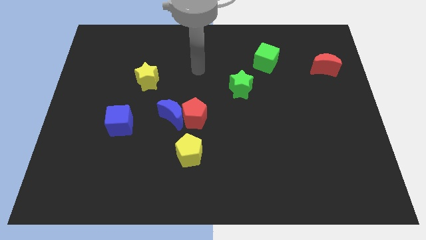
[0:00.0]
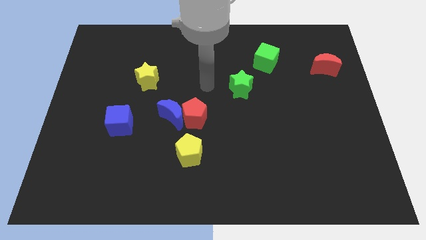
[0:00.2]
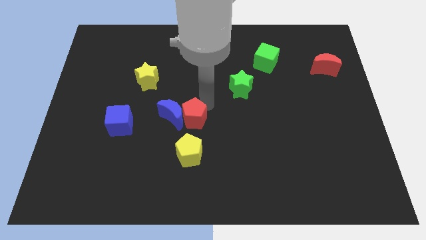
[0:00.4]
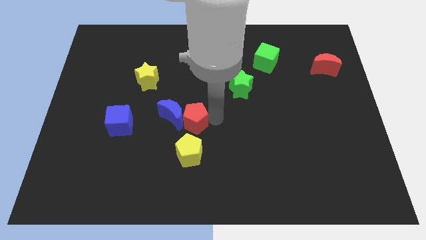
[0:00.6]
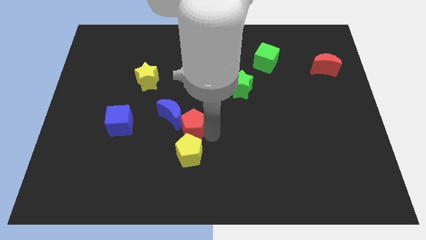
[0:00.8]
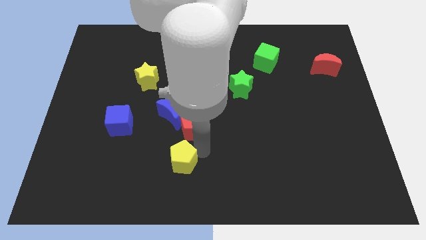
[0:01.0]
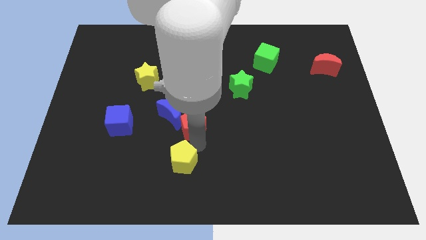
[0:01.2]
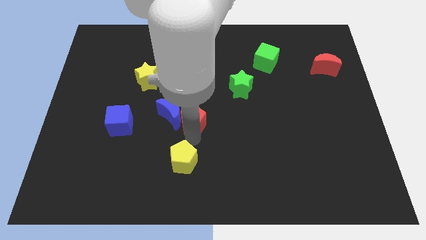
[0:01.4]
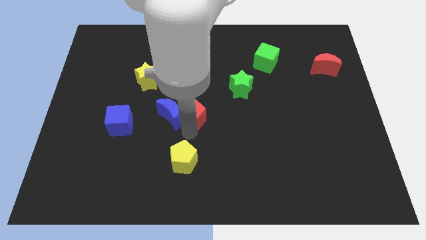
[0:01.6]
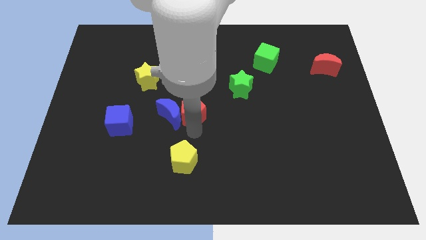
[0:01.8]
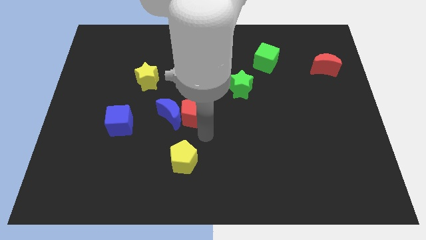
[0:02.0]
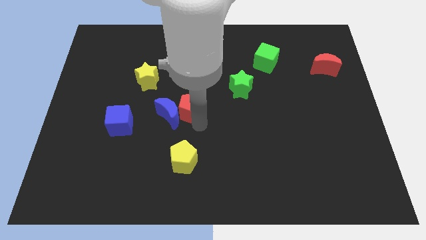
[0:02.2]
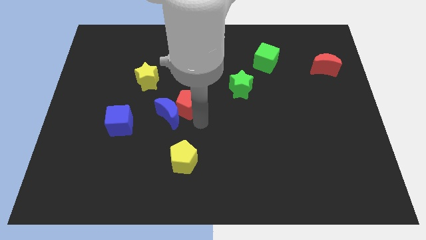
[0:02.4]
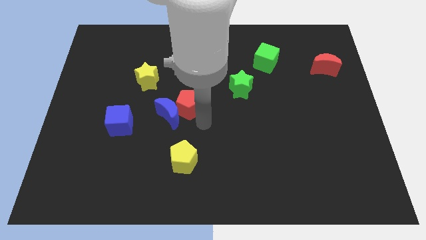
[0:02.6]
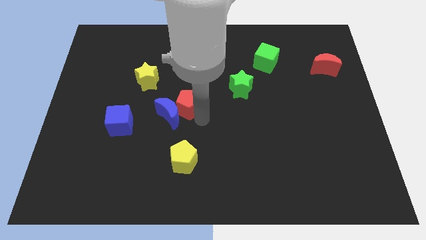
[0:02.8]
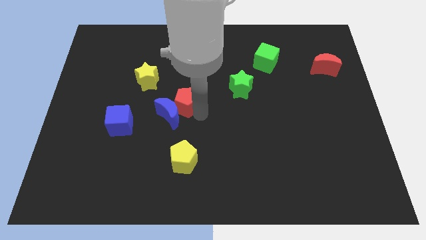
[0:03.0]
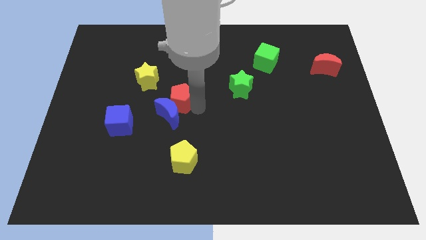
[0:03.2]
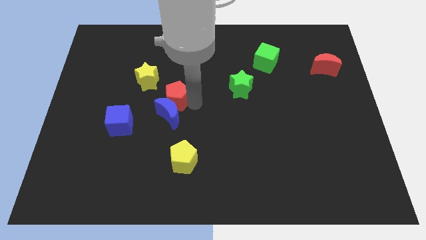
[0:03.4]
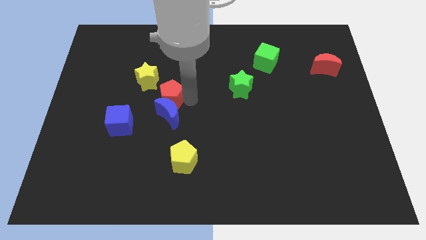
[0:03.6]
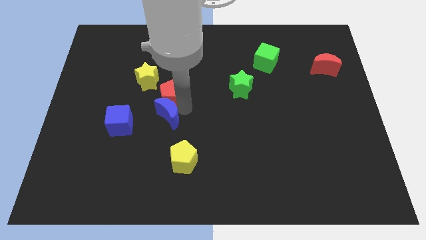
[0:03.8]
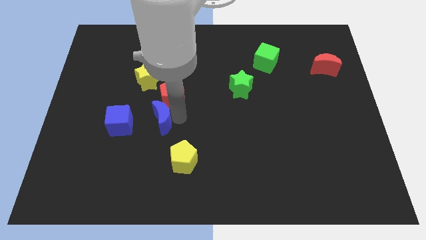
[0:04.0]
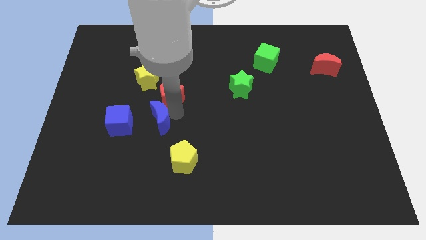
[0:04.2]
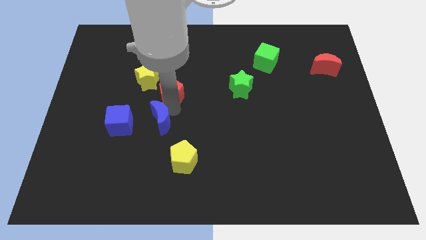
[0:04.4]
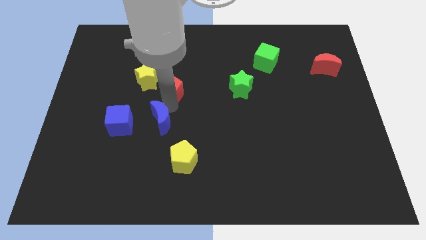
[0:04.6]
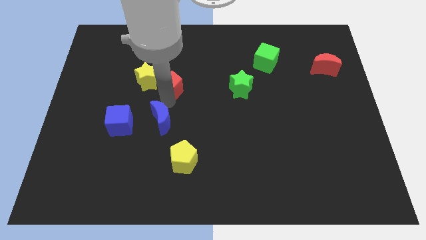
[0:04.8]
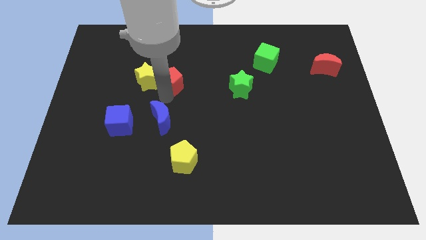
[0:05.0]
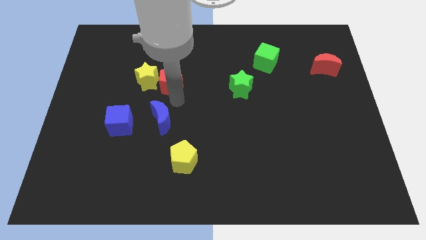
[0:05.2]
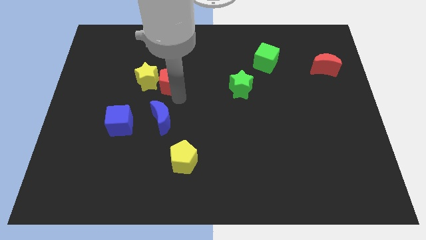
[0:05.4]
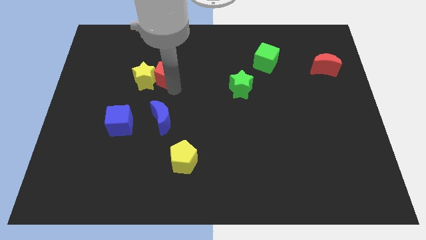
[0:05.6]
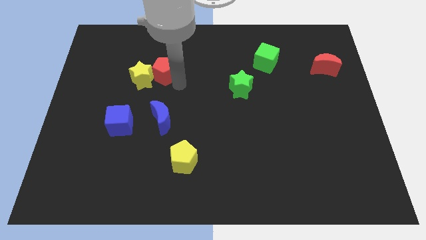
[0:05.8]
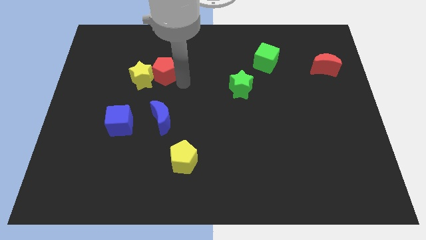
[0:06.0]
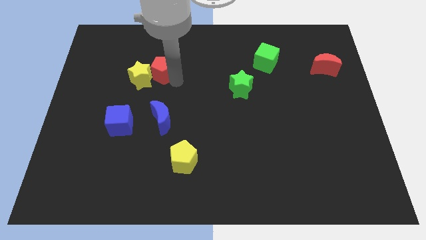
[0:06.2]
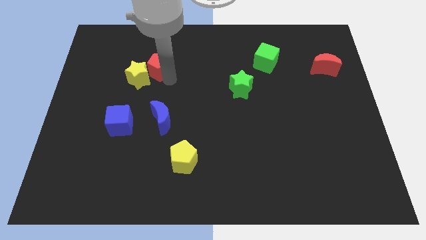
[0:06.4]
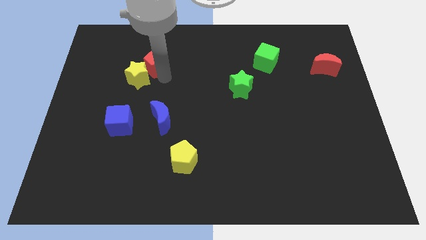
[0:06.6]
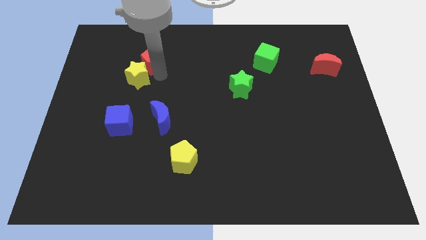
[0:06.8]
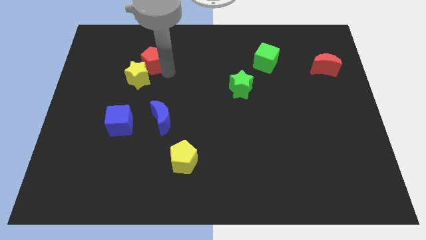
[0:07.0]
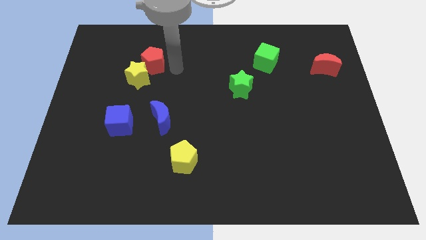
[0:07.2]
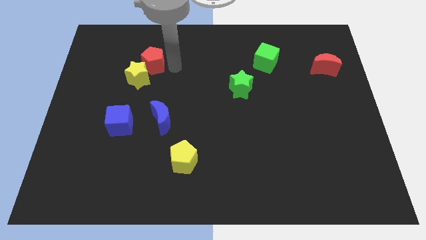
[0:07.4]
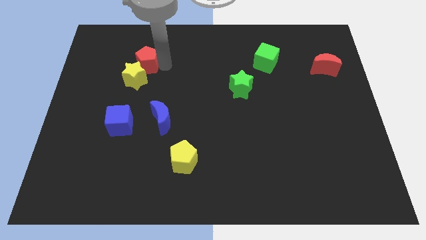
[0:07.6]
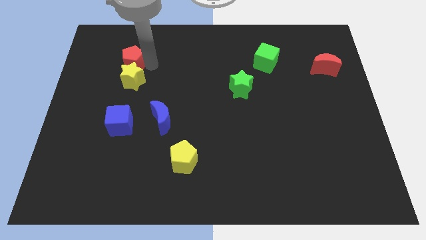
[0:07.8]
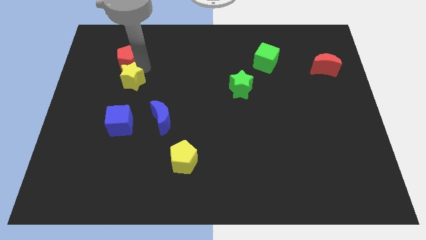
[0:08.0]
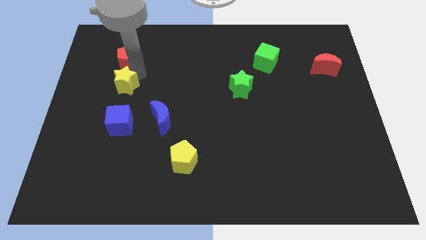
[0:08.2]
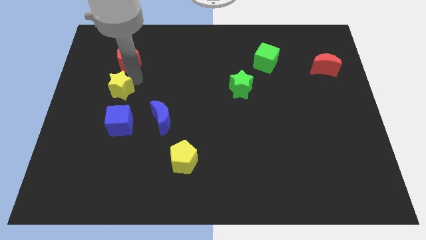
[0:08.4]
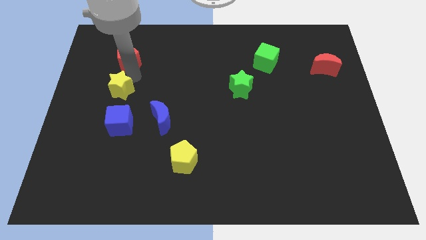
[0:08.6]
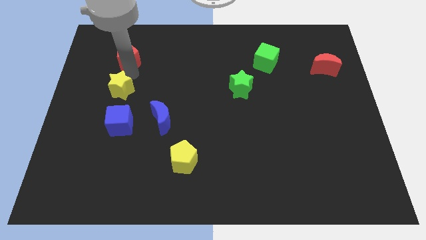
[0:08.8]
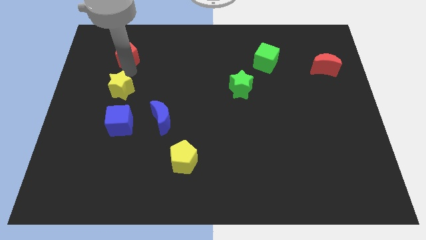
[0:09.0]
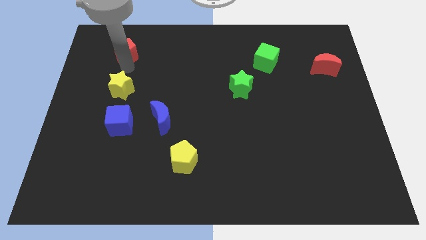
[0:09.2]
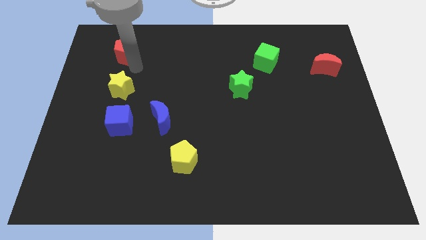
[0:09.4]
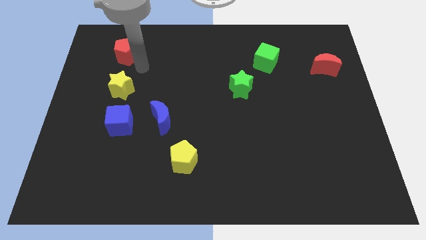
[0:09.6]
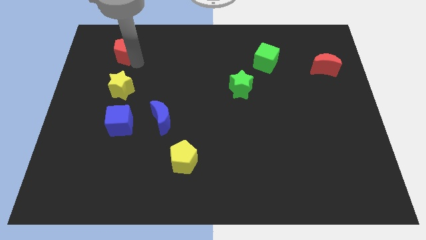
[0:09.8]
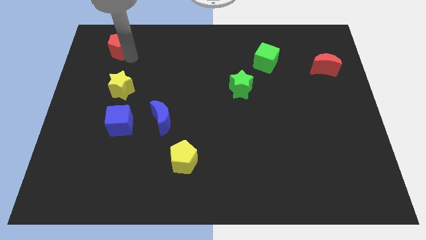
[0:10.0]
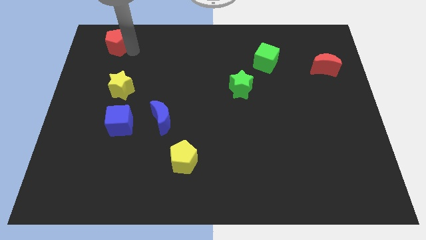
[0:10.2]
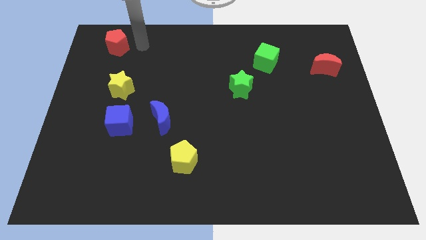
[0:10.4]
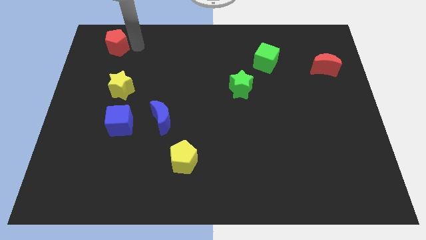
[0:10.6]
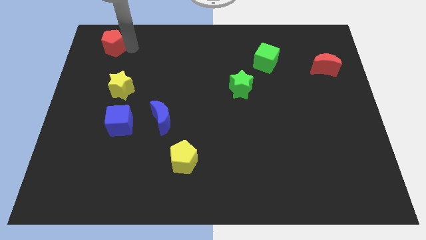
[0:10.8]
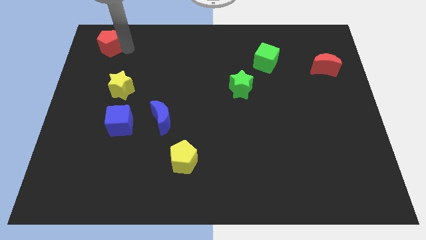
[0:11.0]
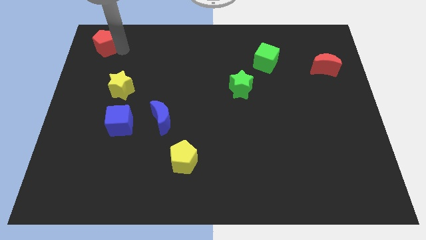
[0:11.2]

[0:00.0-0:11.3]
move the red pentagon to the top left corner

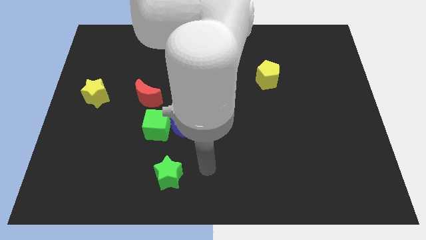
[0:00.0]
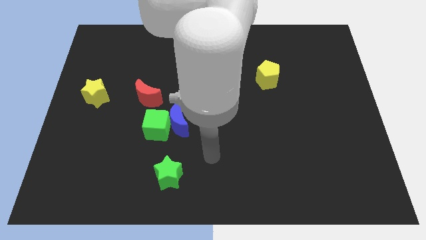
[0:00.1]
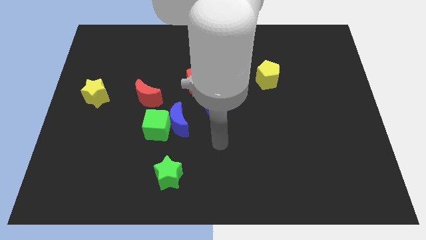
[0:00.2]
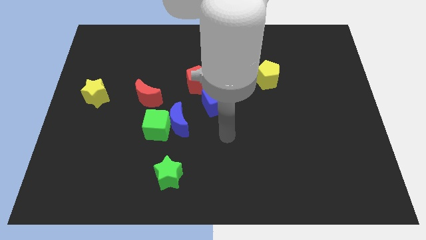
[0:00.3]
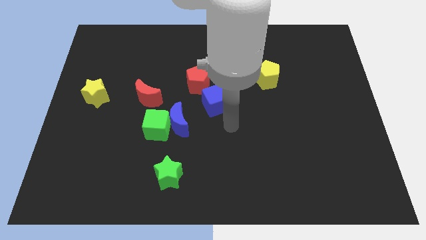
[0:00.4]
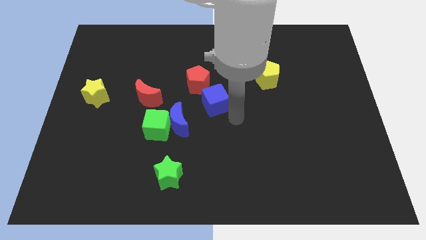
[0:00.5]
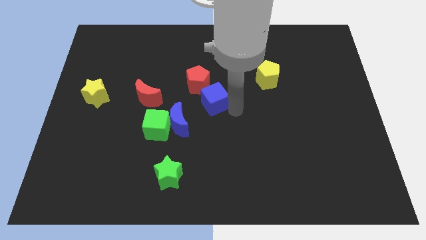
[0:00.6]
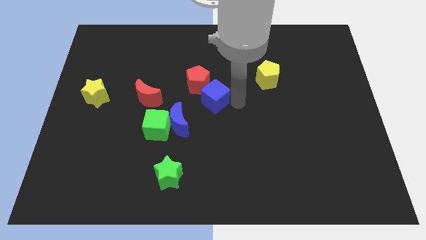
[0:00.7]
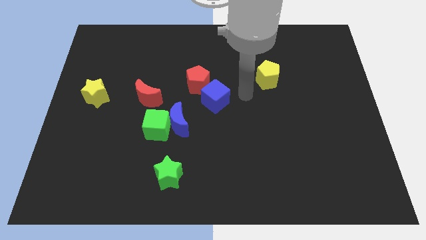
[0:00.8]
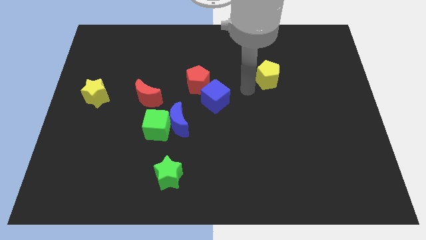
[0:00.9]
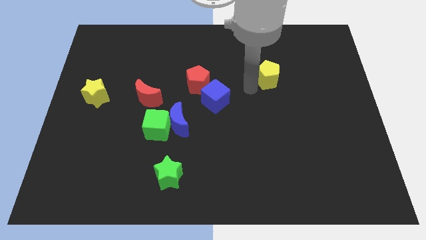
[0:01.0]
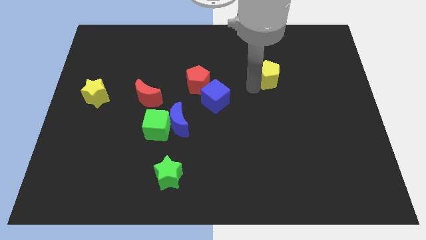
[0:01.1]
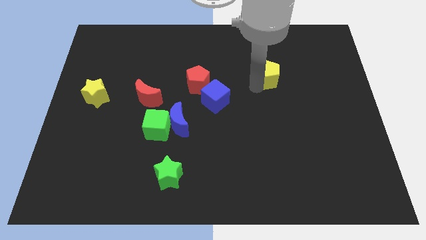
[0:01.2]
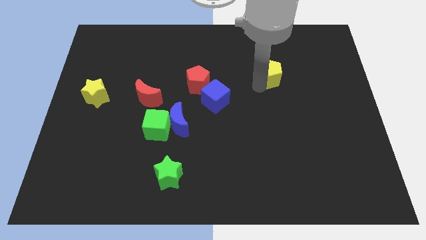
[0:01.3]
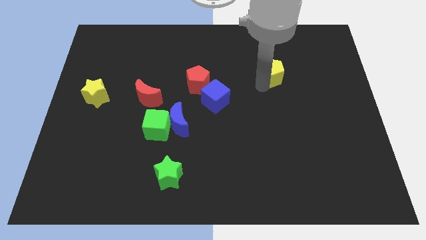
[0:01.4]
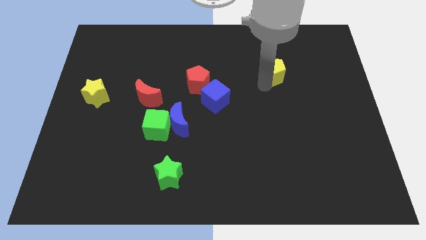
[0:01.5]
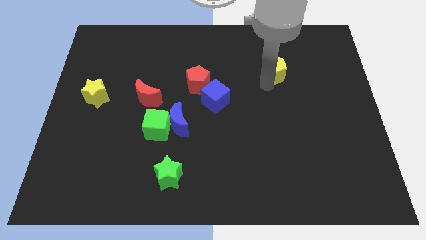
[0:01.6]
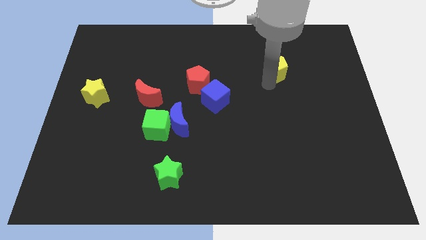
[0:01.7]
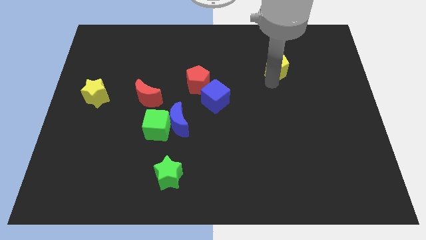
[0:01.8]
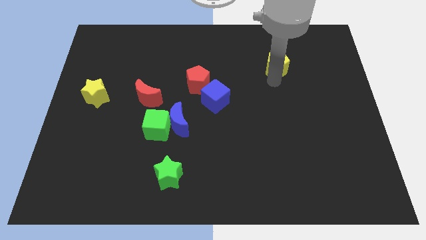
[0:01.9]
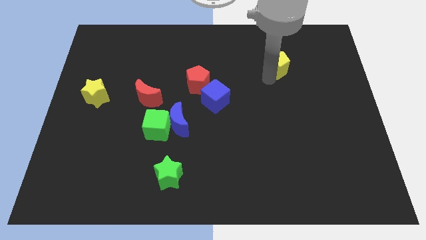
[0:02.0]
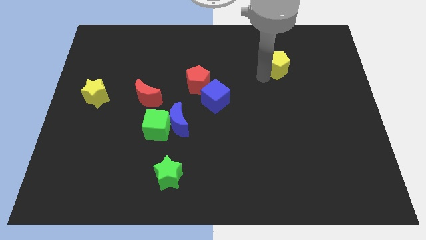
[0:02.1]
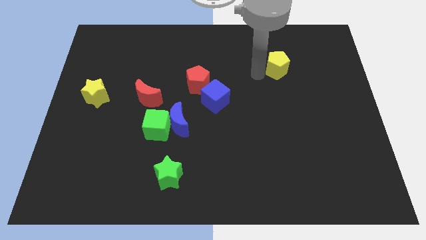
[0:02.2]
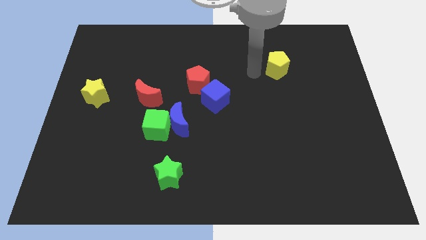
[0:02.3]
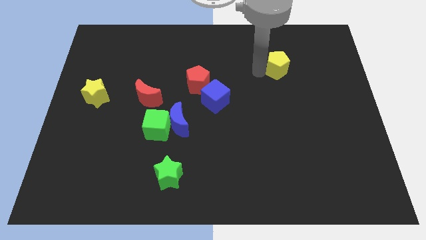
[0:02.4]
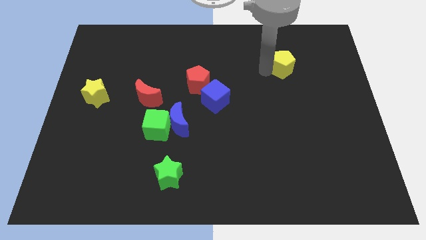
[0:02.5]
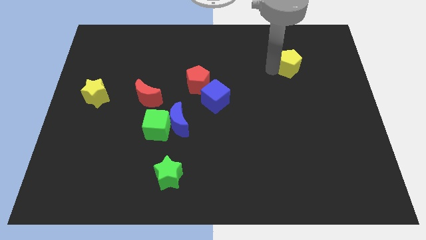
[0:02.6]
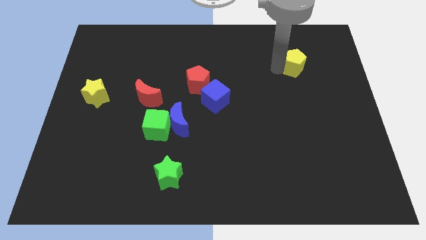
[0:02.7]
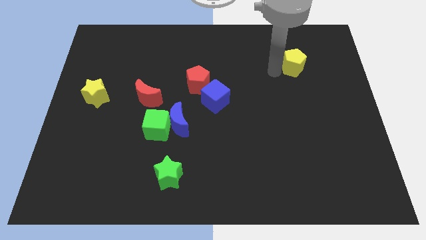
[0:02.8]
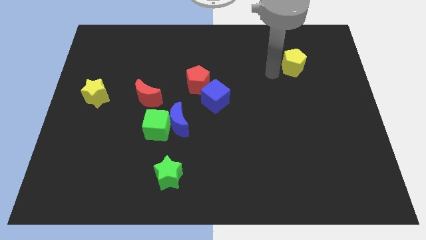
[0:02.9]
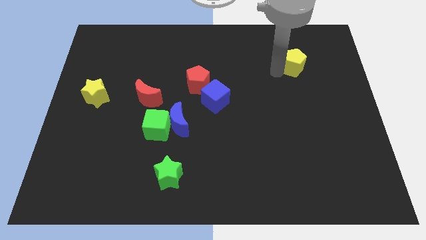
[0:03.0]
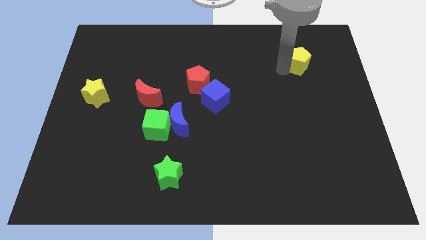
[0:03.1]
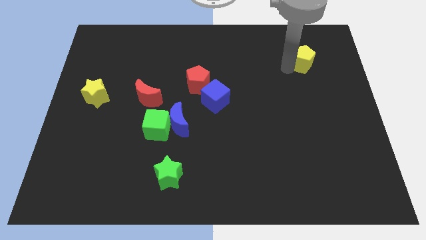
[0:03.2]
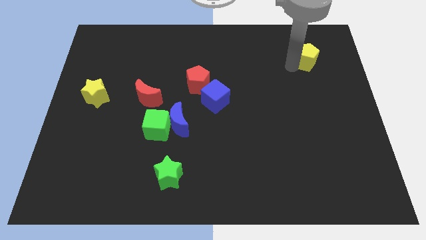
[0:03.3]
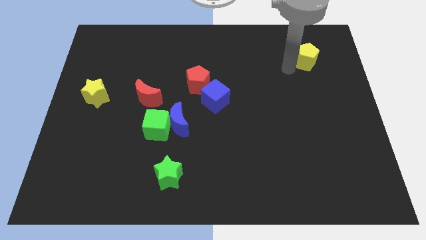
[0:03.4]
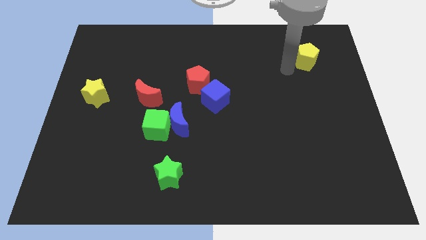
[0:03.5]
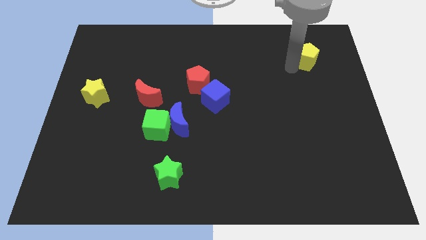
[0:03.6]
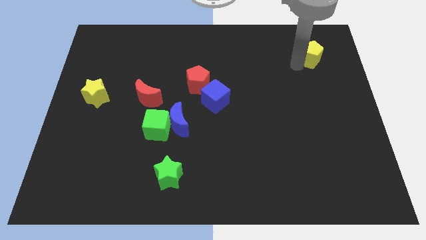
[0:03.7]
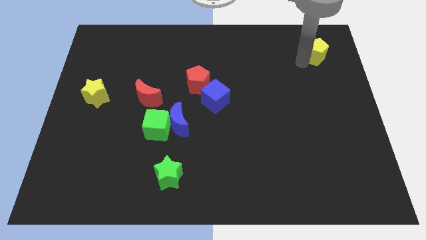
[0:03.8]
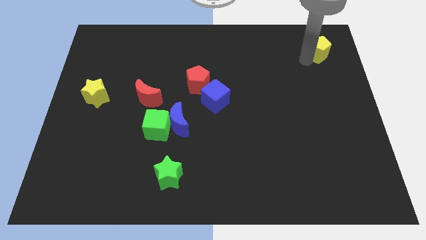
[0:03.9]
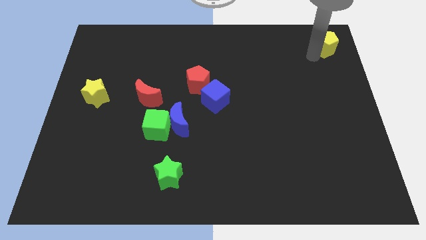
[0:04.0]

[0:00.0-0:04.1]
push the yellow pentagon to the upper right corner
